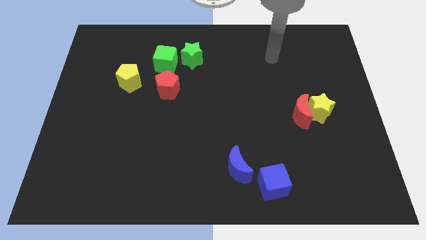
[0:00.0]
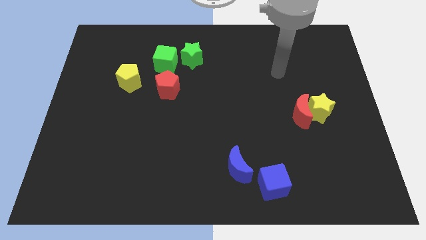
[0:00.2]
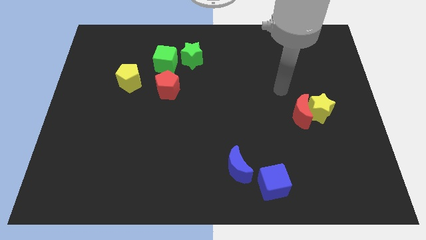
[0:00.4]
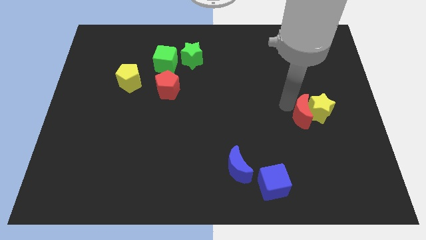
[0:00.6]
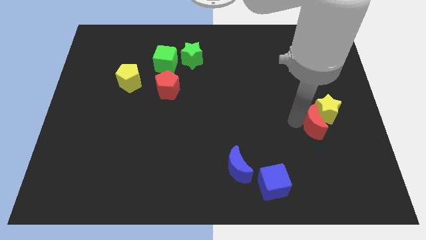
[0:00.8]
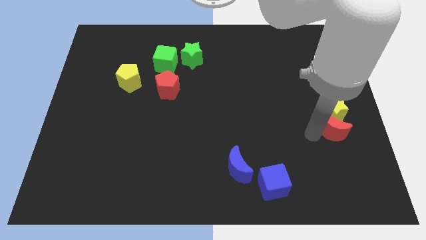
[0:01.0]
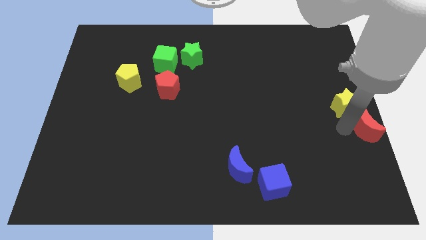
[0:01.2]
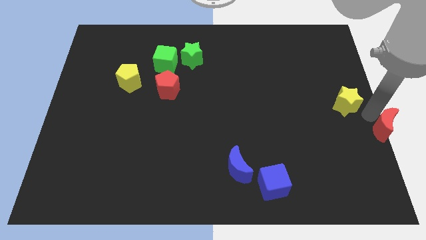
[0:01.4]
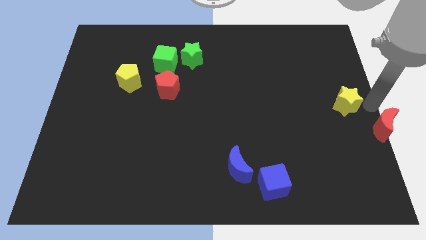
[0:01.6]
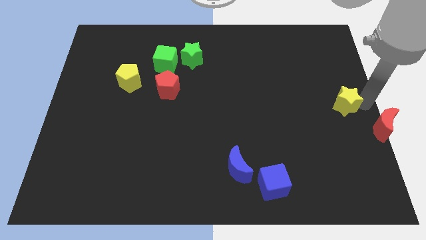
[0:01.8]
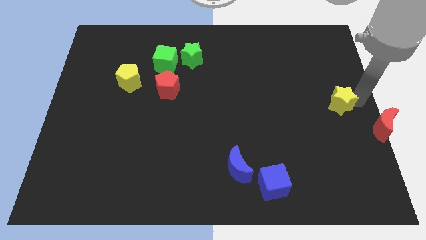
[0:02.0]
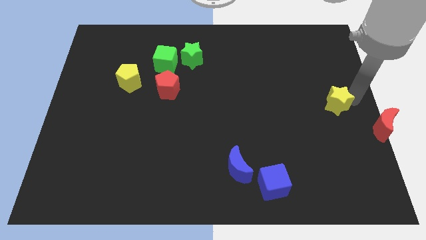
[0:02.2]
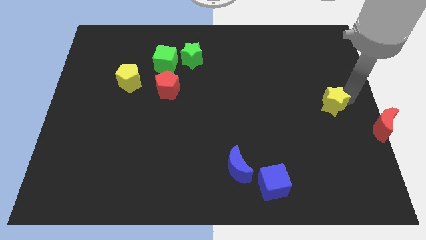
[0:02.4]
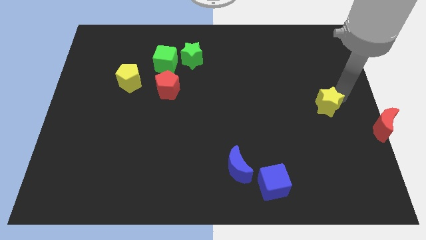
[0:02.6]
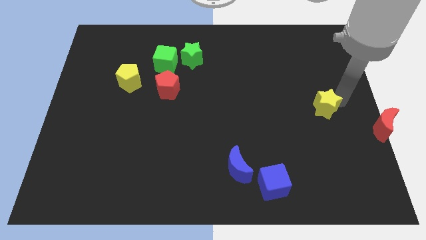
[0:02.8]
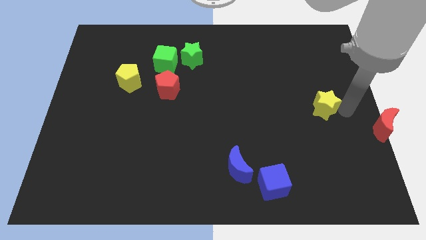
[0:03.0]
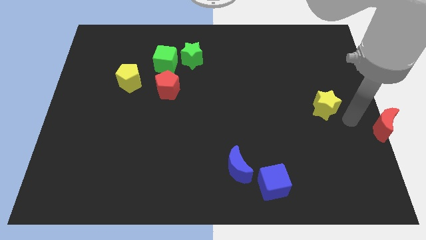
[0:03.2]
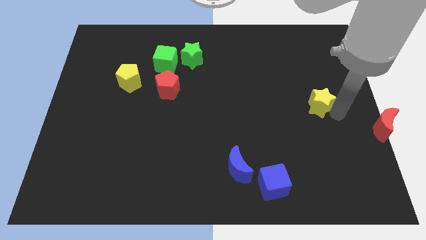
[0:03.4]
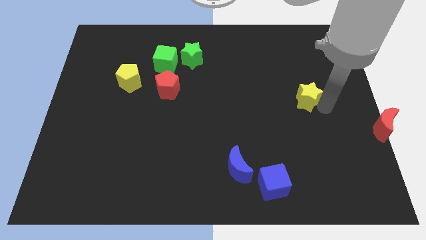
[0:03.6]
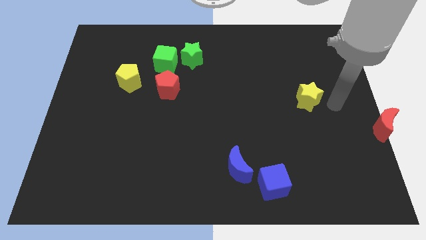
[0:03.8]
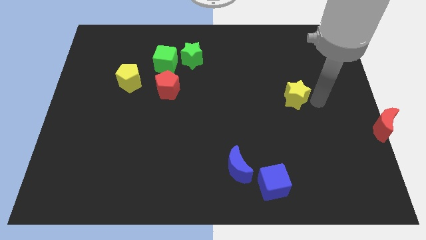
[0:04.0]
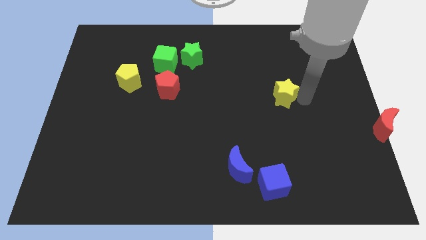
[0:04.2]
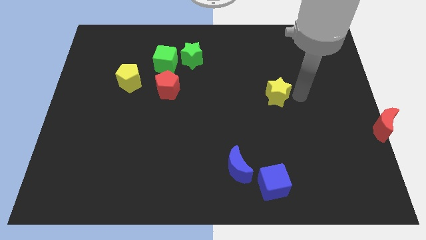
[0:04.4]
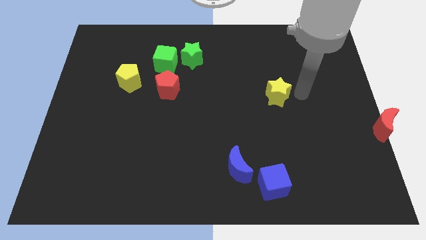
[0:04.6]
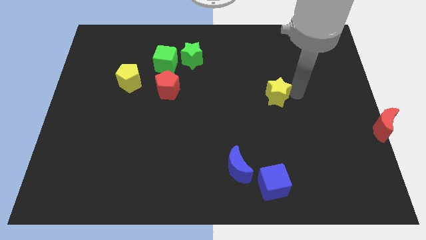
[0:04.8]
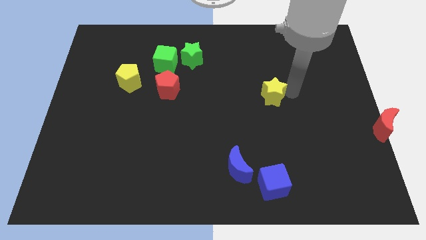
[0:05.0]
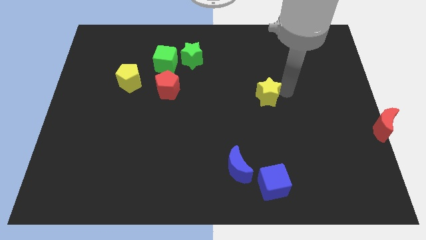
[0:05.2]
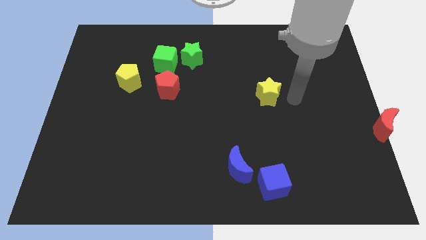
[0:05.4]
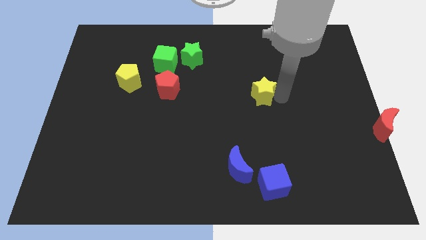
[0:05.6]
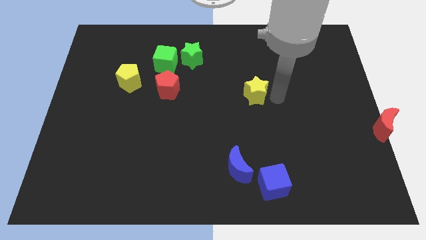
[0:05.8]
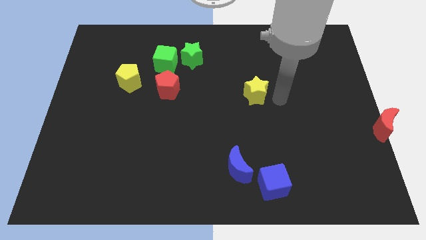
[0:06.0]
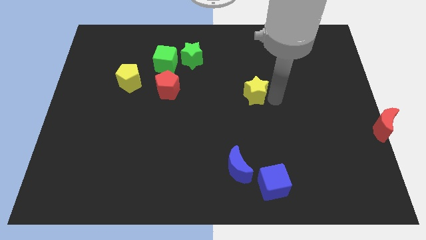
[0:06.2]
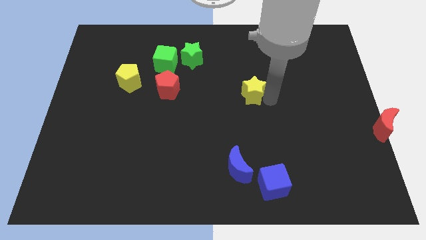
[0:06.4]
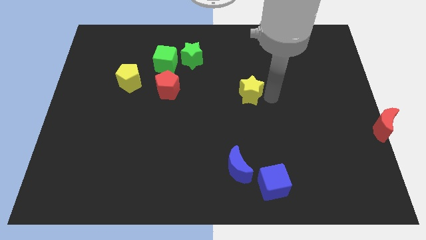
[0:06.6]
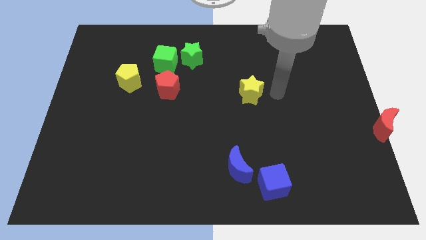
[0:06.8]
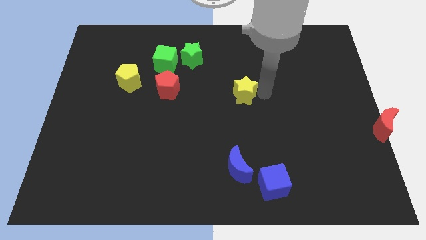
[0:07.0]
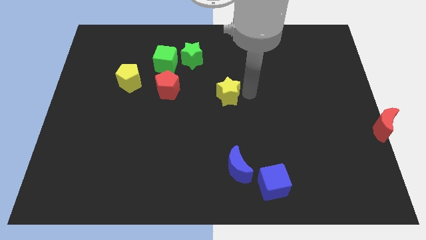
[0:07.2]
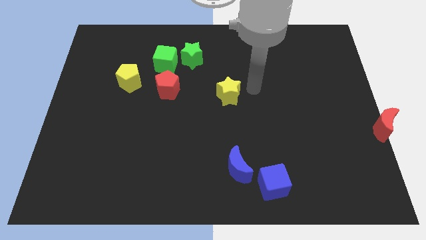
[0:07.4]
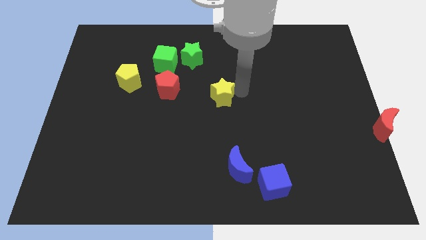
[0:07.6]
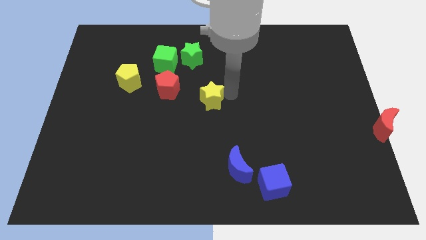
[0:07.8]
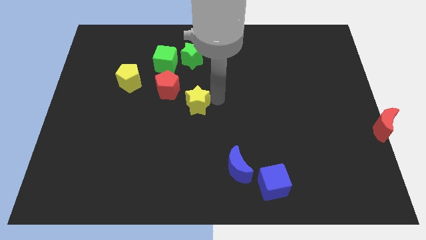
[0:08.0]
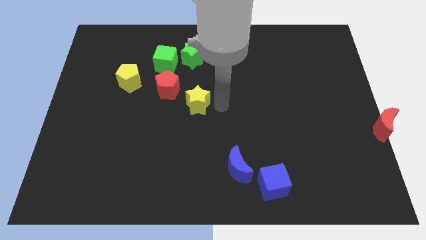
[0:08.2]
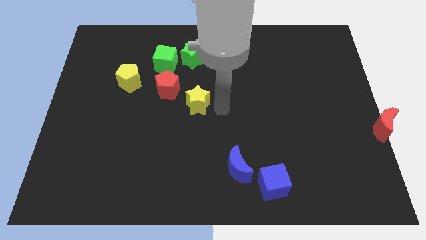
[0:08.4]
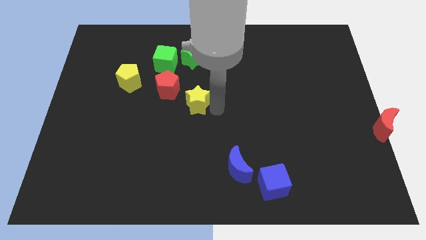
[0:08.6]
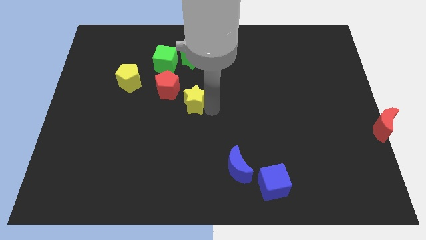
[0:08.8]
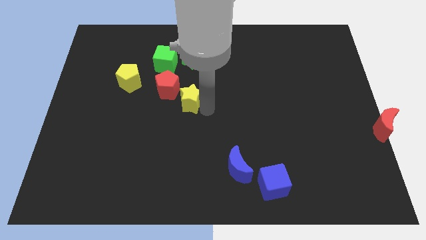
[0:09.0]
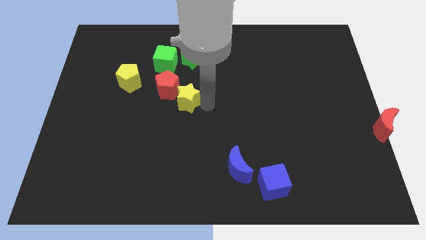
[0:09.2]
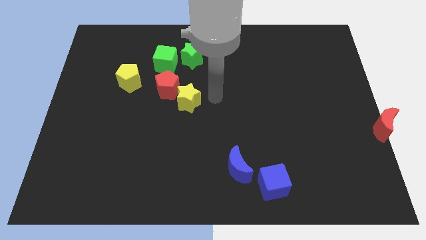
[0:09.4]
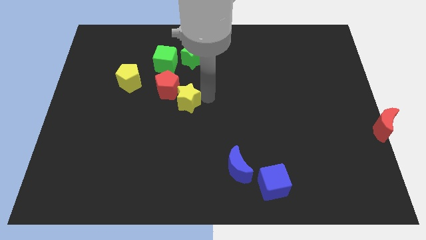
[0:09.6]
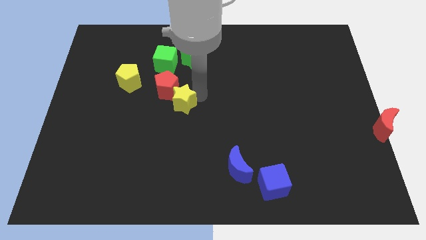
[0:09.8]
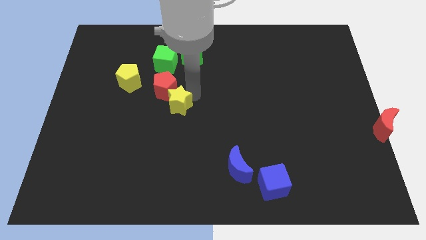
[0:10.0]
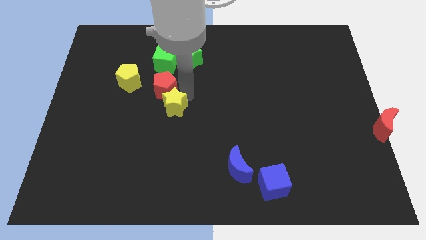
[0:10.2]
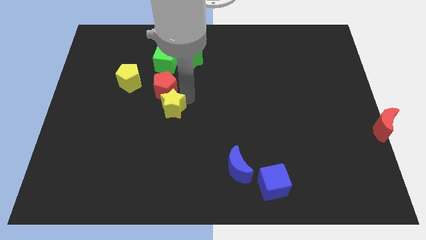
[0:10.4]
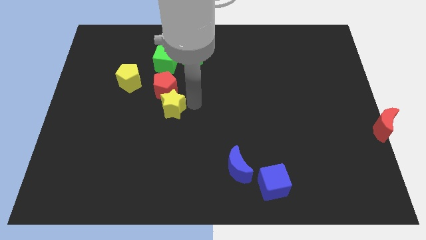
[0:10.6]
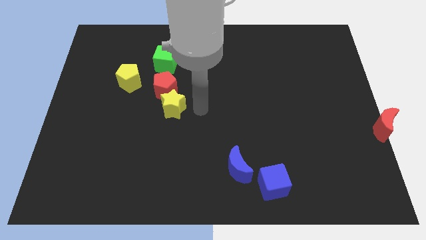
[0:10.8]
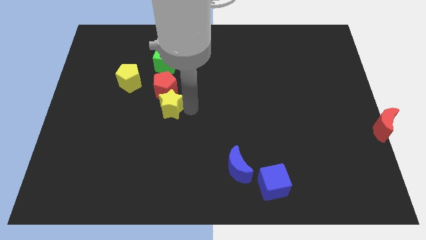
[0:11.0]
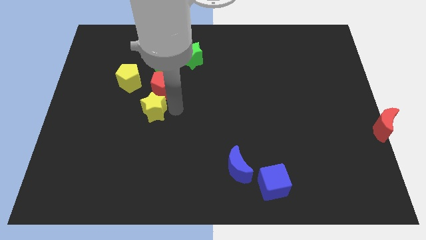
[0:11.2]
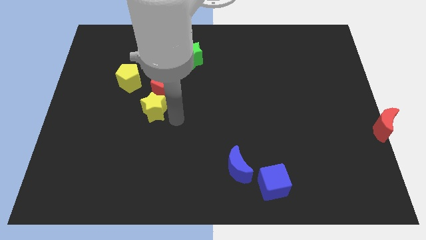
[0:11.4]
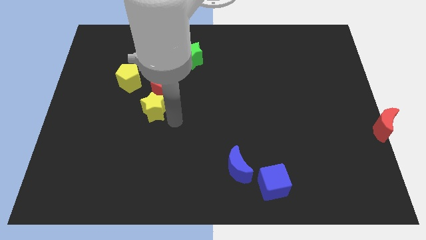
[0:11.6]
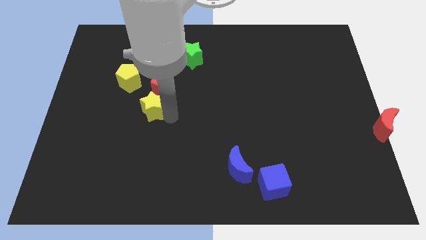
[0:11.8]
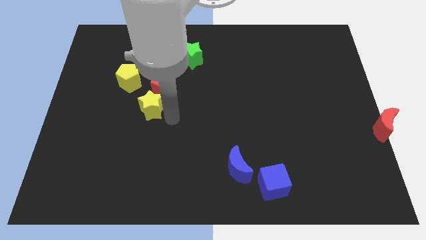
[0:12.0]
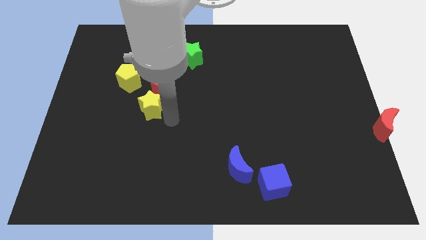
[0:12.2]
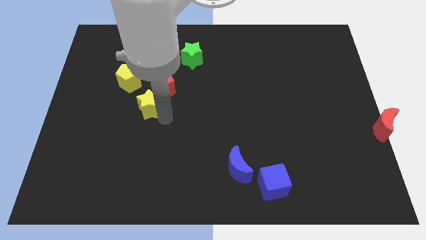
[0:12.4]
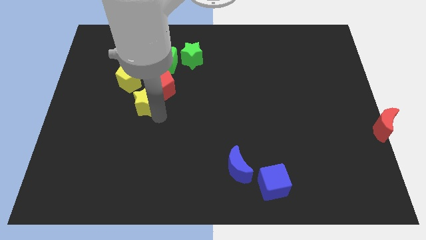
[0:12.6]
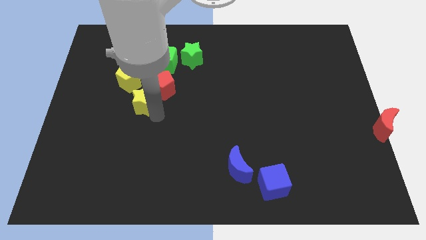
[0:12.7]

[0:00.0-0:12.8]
move the yellow star to the left side of the red pentagon
